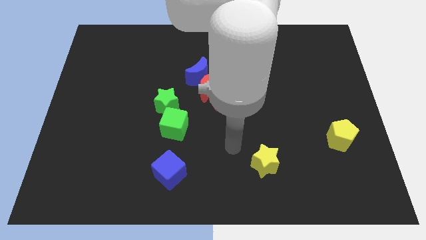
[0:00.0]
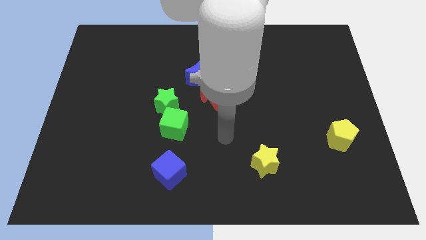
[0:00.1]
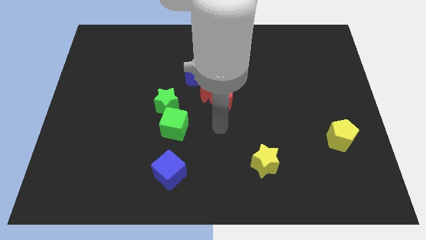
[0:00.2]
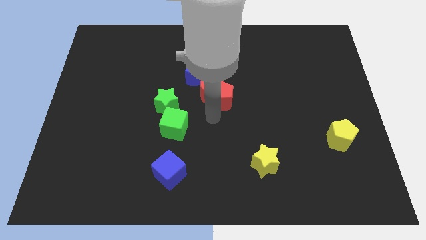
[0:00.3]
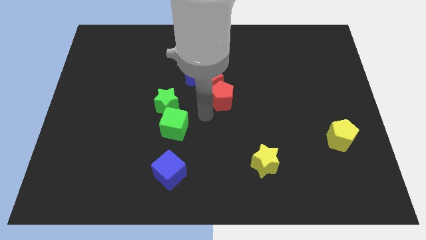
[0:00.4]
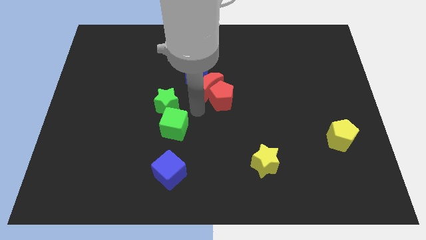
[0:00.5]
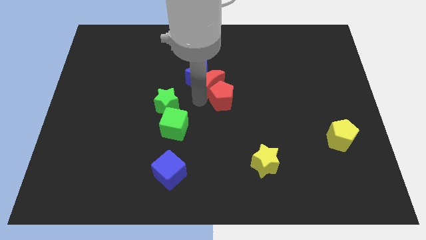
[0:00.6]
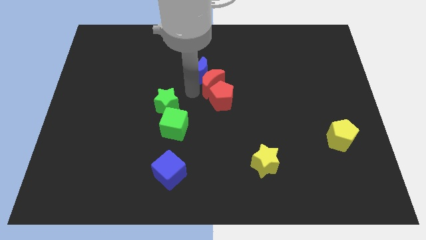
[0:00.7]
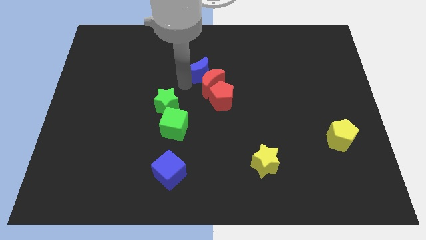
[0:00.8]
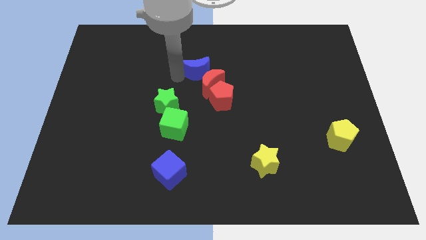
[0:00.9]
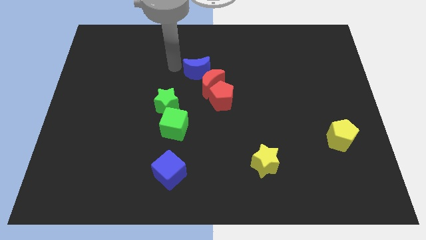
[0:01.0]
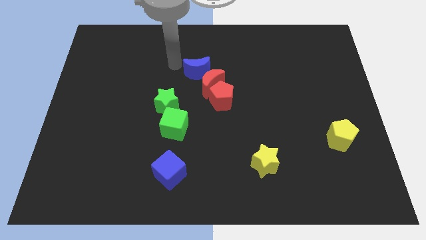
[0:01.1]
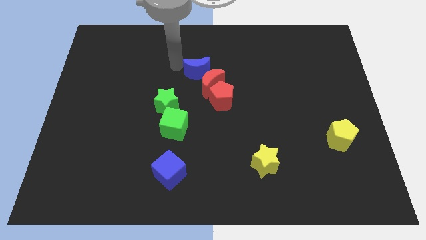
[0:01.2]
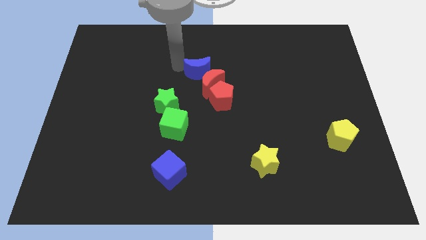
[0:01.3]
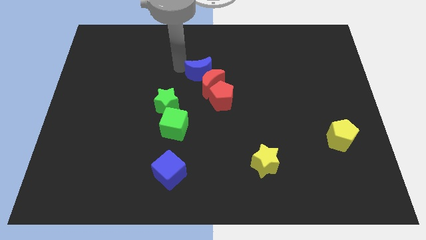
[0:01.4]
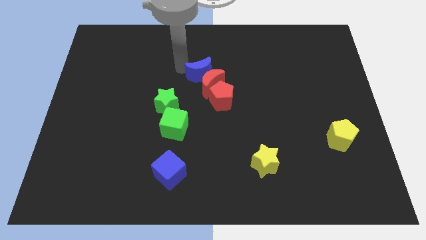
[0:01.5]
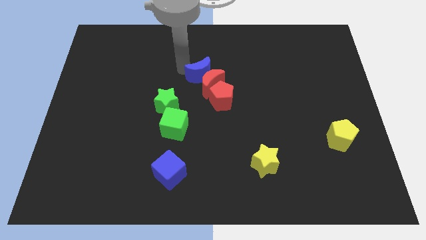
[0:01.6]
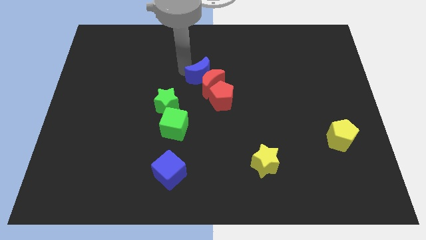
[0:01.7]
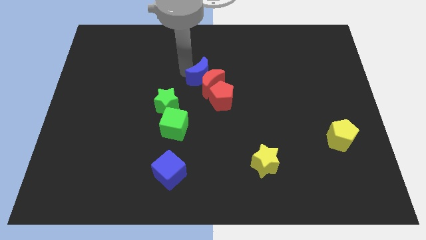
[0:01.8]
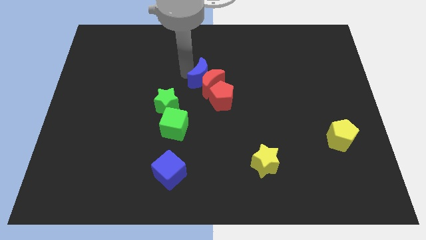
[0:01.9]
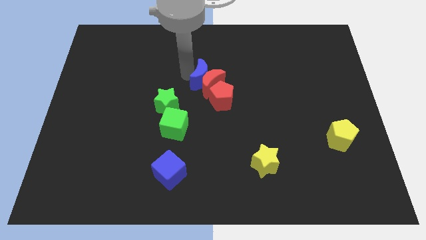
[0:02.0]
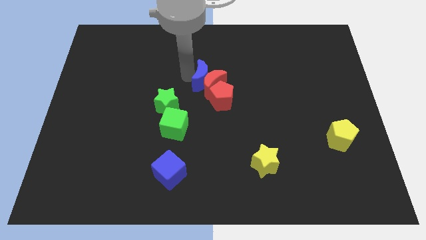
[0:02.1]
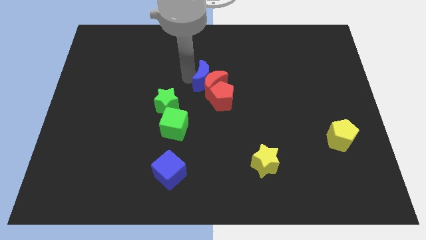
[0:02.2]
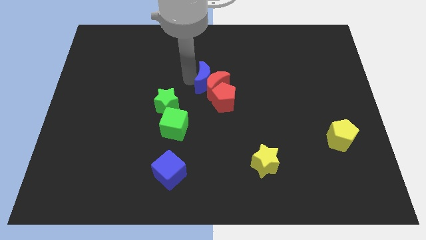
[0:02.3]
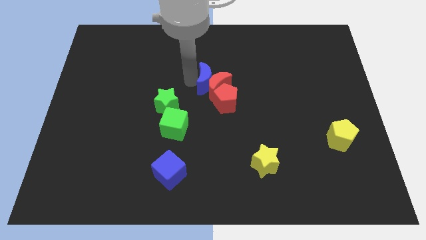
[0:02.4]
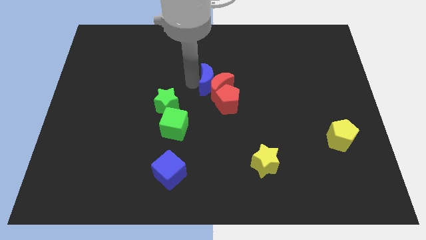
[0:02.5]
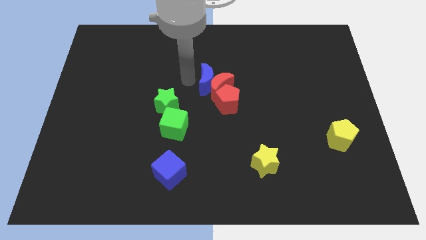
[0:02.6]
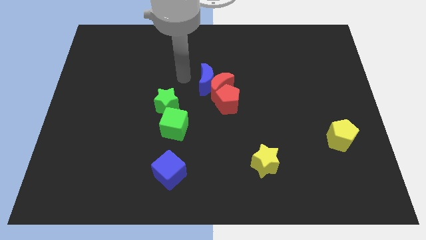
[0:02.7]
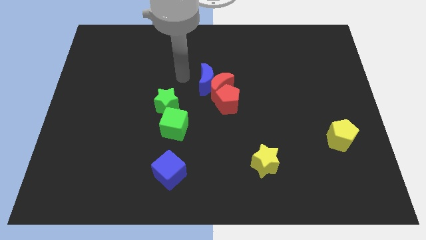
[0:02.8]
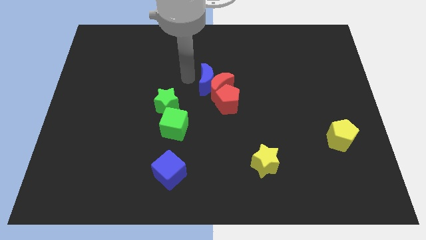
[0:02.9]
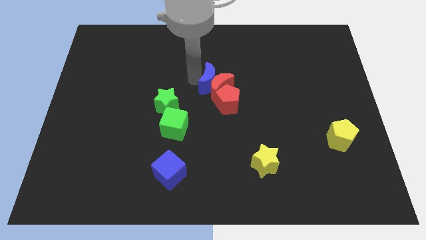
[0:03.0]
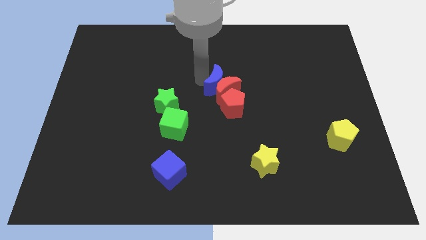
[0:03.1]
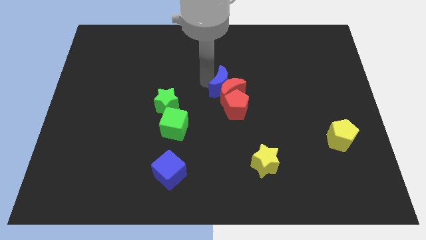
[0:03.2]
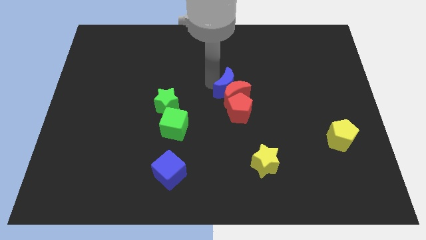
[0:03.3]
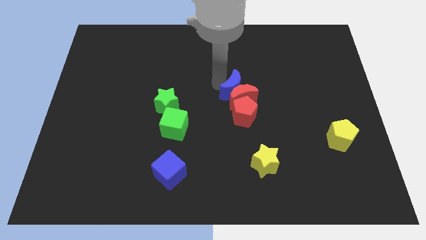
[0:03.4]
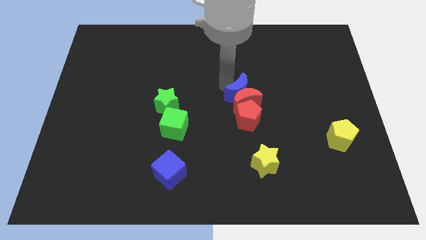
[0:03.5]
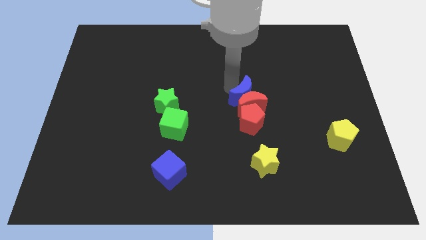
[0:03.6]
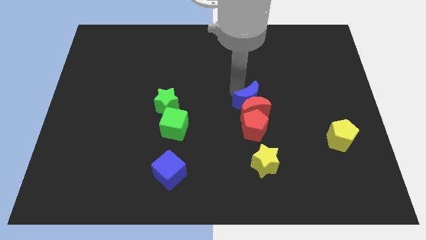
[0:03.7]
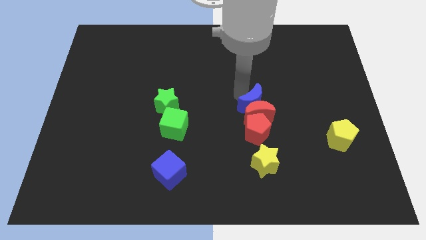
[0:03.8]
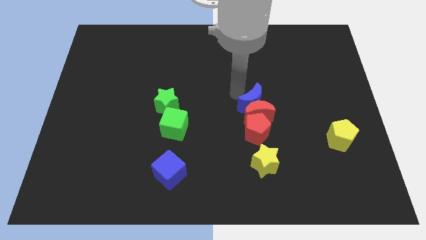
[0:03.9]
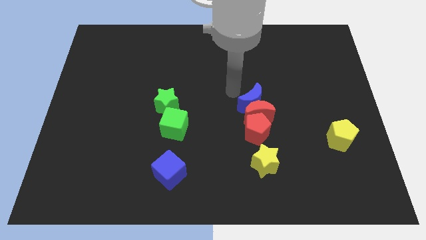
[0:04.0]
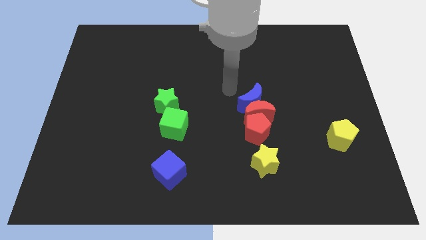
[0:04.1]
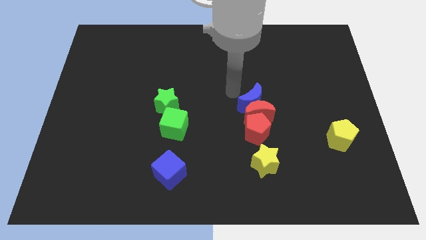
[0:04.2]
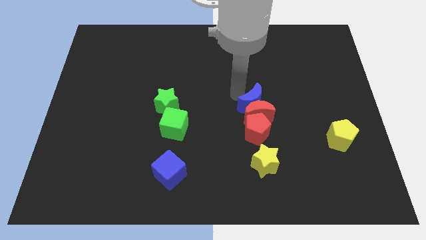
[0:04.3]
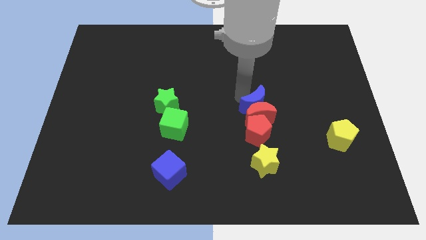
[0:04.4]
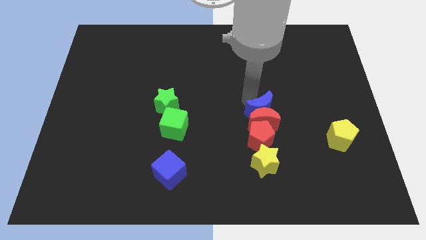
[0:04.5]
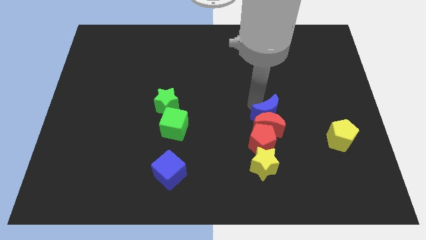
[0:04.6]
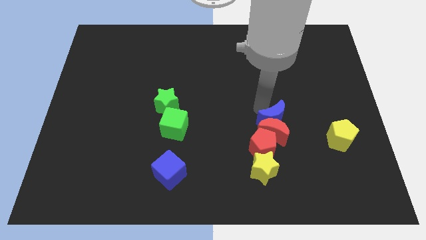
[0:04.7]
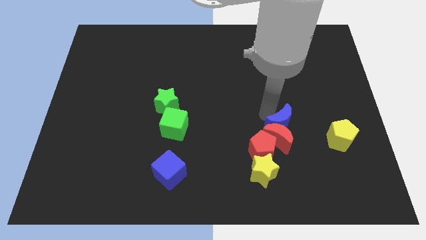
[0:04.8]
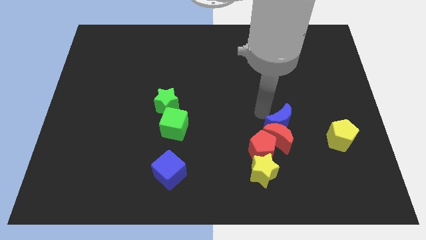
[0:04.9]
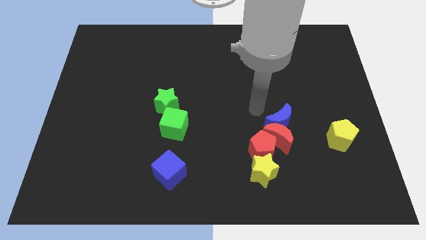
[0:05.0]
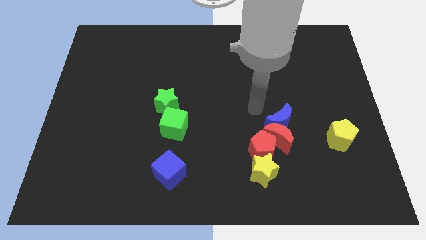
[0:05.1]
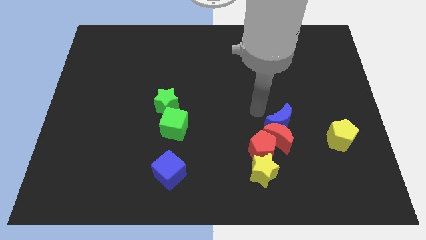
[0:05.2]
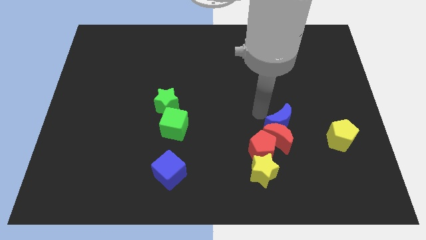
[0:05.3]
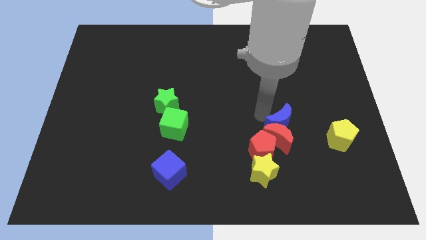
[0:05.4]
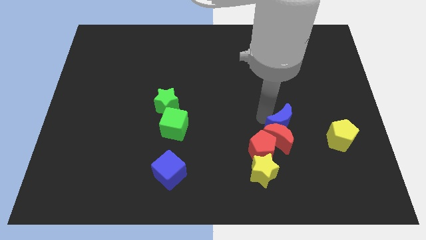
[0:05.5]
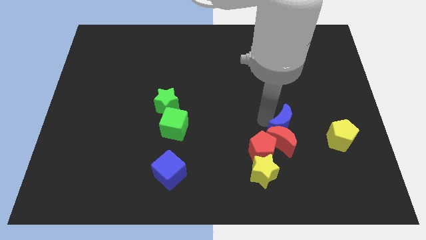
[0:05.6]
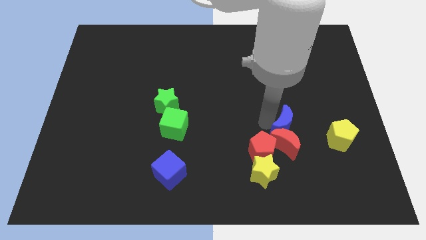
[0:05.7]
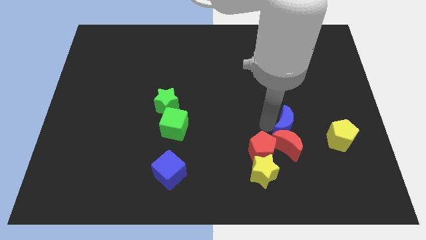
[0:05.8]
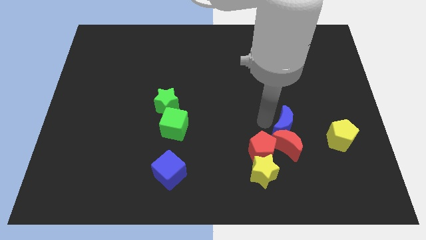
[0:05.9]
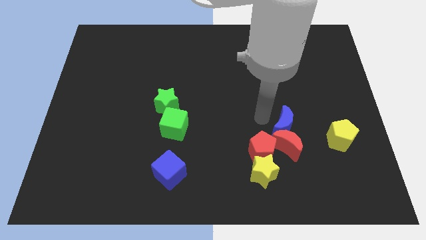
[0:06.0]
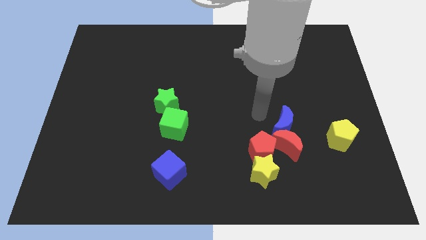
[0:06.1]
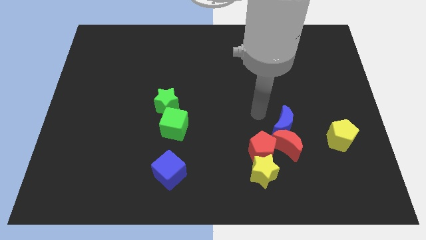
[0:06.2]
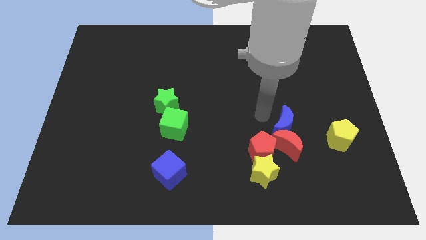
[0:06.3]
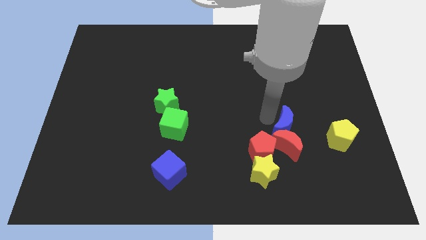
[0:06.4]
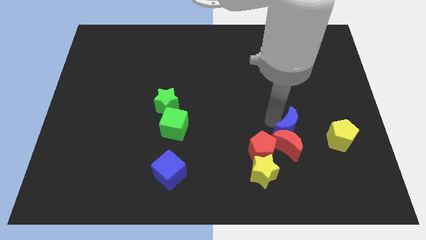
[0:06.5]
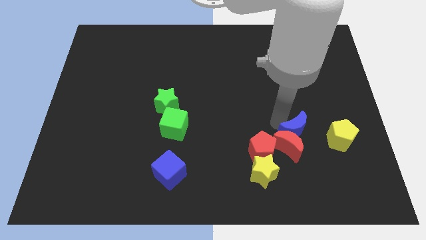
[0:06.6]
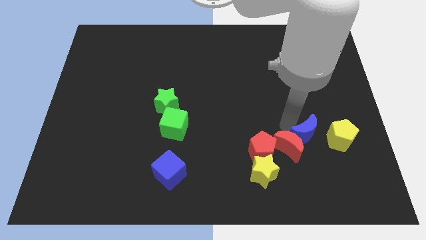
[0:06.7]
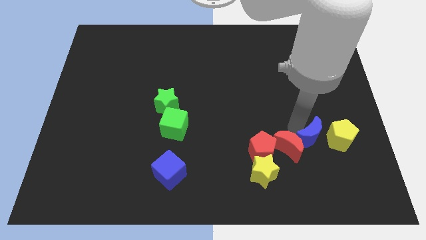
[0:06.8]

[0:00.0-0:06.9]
slide the blue moon diagonally down and to the left of the yellow pentagon
